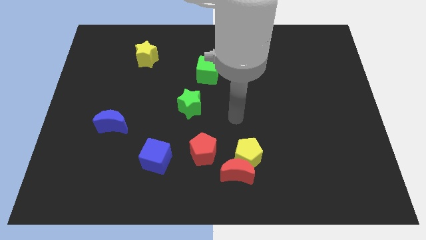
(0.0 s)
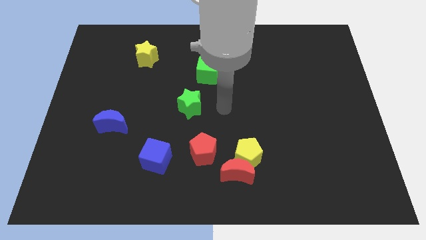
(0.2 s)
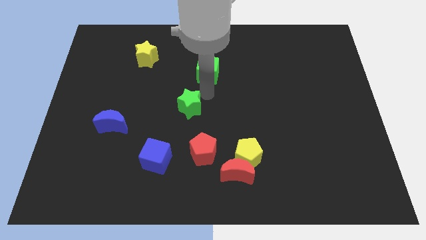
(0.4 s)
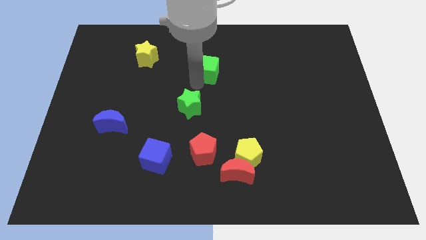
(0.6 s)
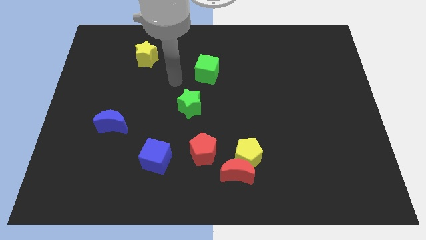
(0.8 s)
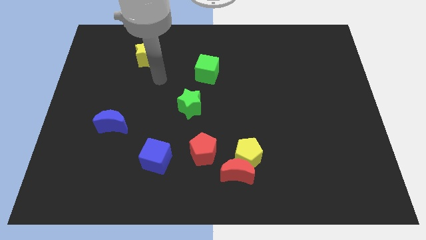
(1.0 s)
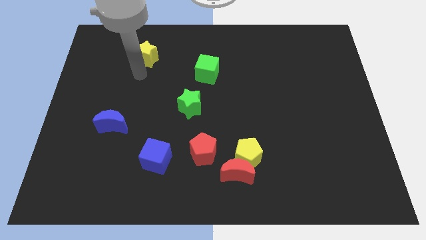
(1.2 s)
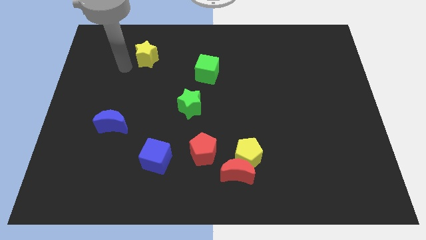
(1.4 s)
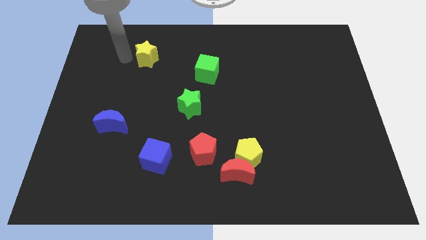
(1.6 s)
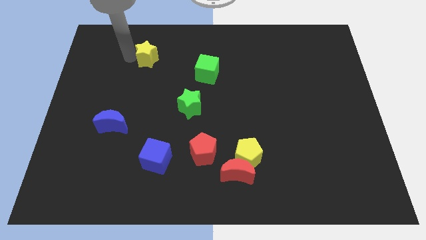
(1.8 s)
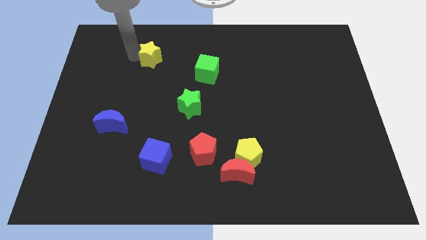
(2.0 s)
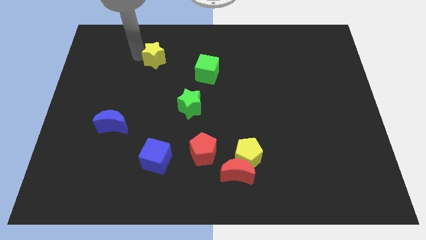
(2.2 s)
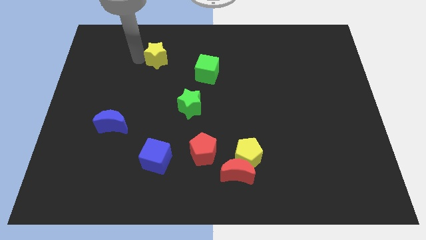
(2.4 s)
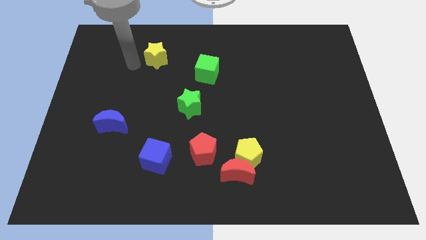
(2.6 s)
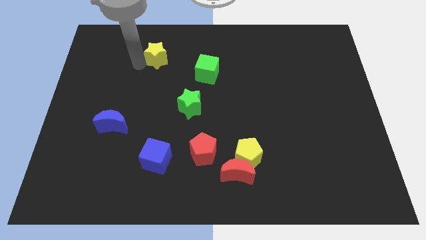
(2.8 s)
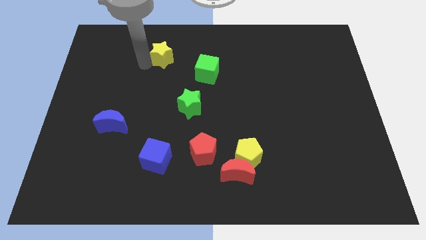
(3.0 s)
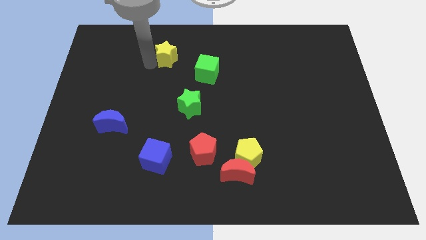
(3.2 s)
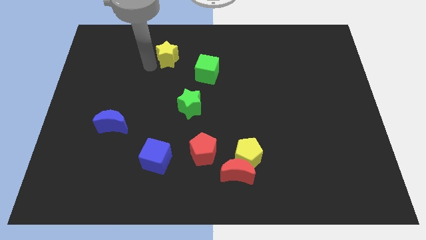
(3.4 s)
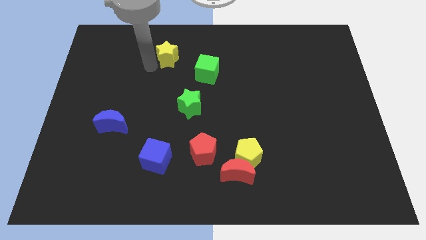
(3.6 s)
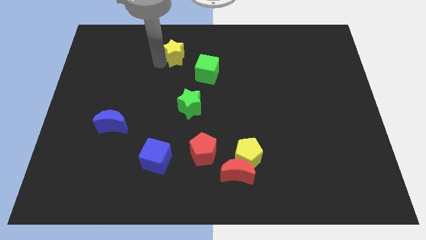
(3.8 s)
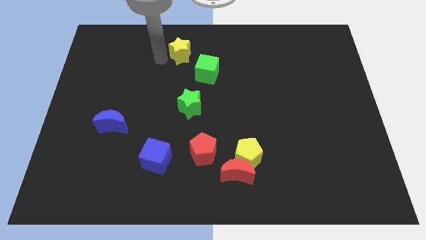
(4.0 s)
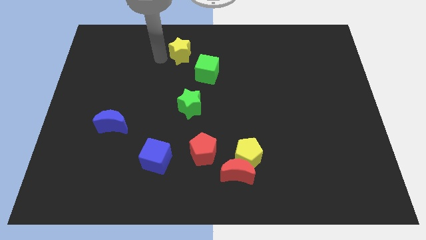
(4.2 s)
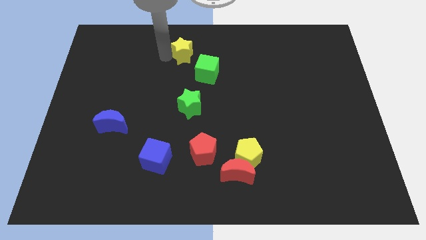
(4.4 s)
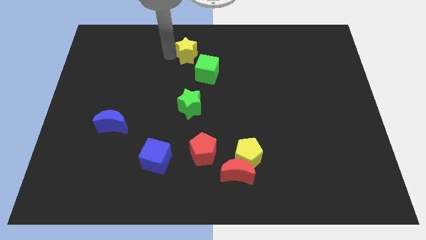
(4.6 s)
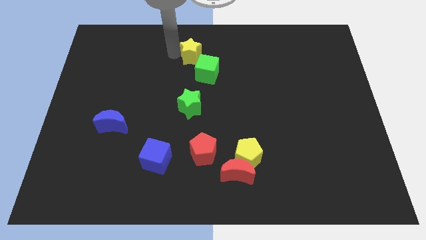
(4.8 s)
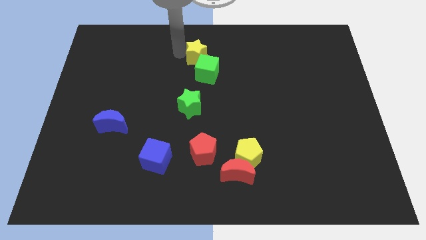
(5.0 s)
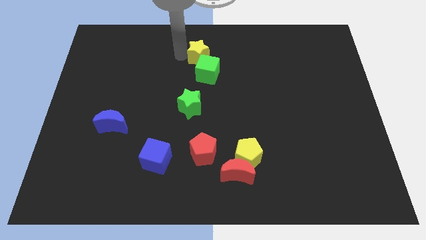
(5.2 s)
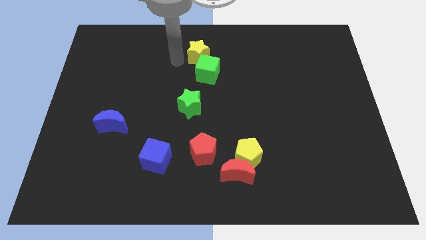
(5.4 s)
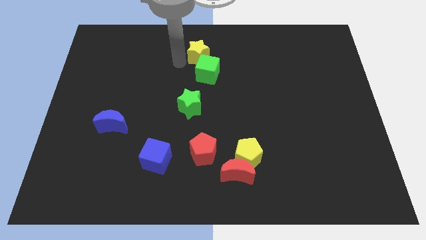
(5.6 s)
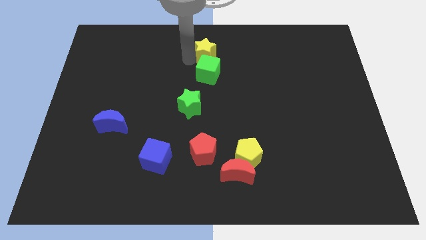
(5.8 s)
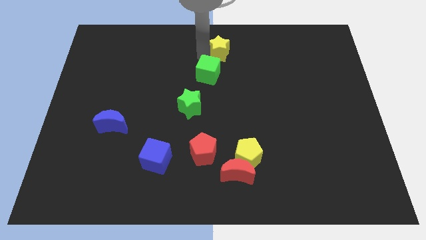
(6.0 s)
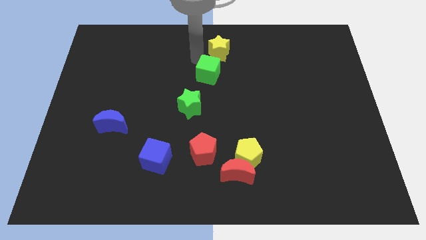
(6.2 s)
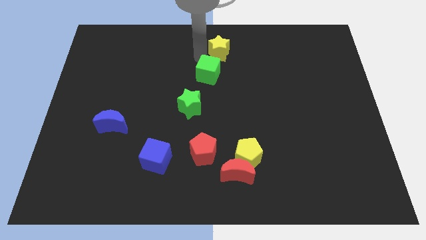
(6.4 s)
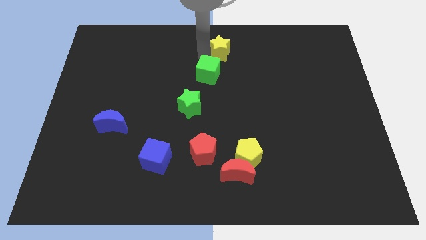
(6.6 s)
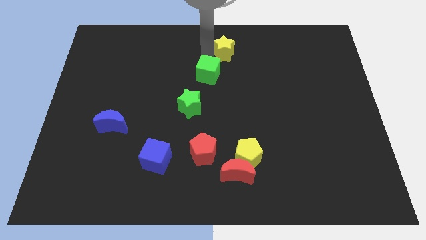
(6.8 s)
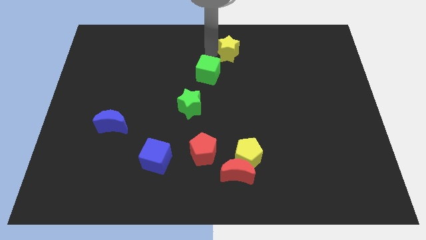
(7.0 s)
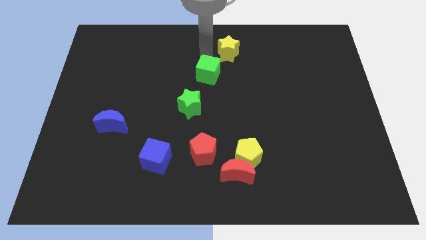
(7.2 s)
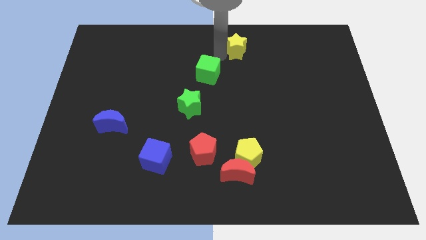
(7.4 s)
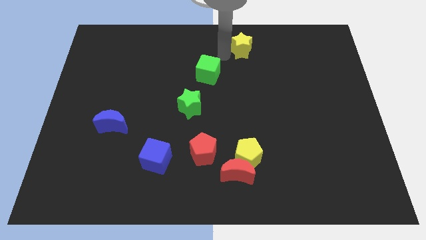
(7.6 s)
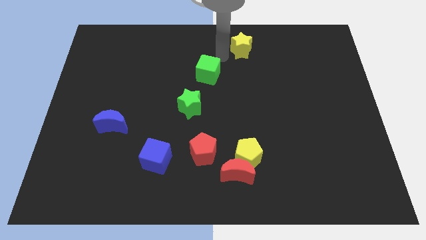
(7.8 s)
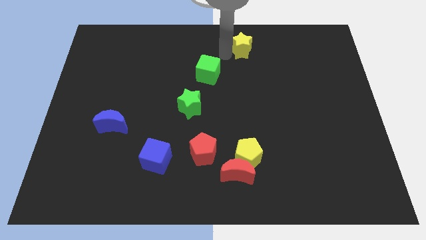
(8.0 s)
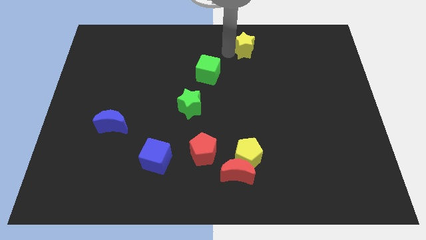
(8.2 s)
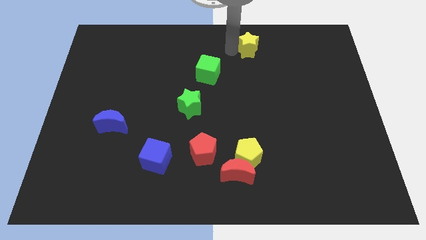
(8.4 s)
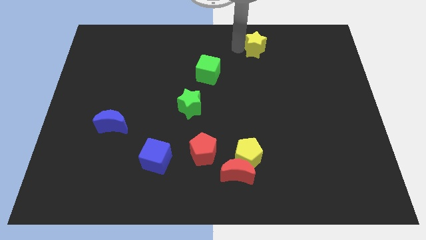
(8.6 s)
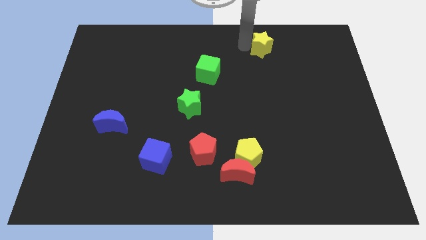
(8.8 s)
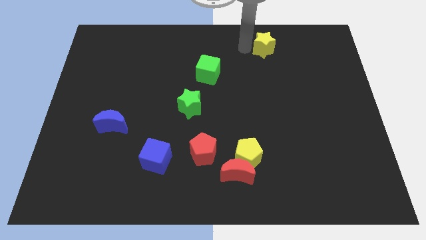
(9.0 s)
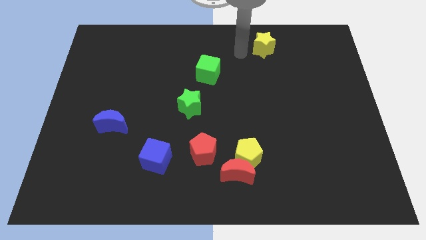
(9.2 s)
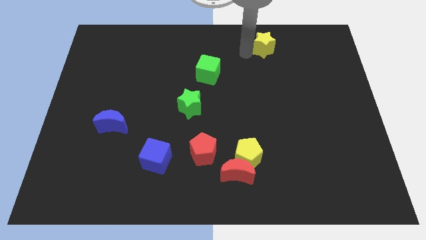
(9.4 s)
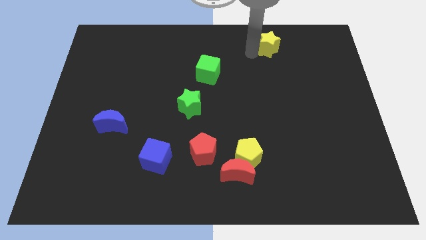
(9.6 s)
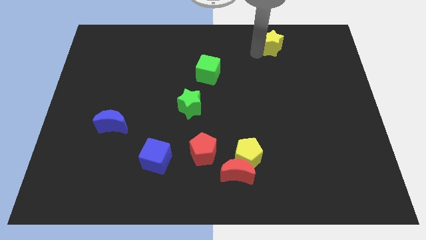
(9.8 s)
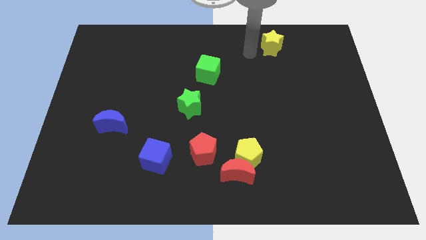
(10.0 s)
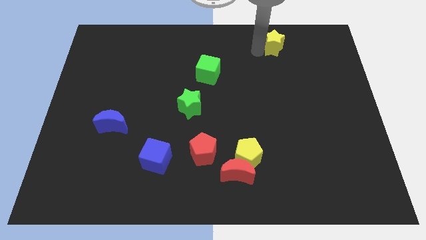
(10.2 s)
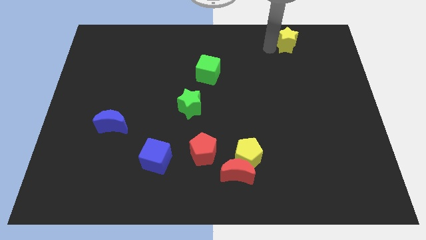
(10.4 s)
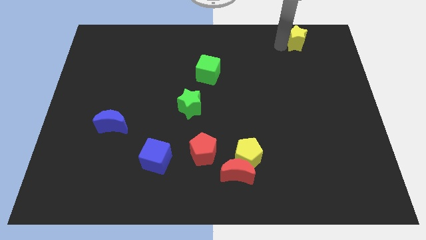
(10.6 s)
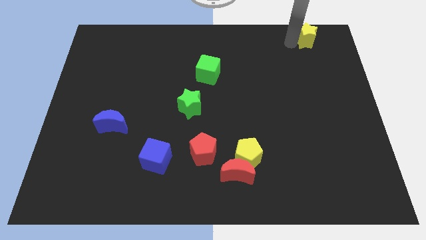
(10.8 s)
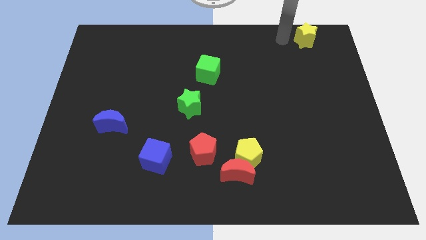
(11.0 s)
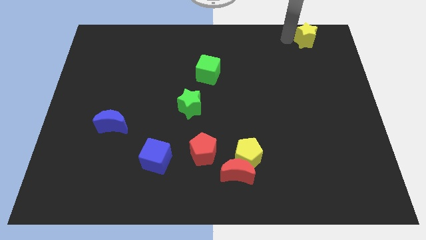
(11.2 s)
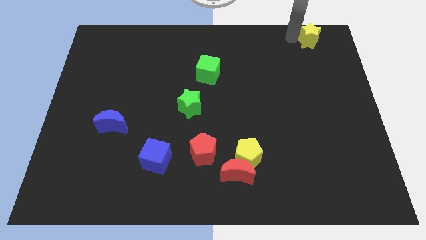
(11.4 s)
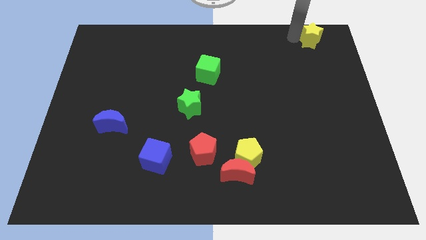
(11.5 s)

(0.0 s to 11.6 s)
move the yellow star to the upper right corner

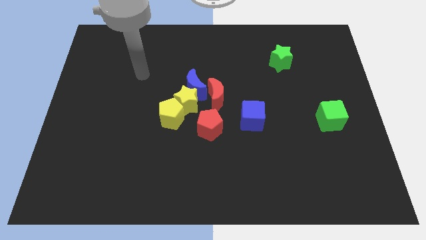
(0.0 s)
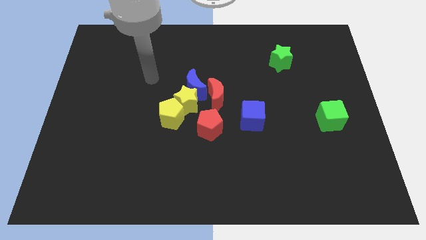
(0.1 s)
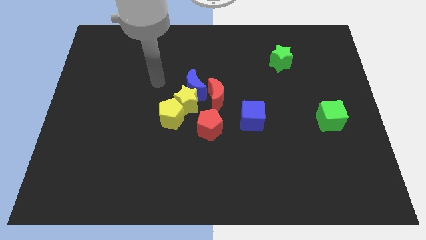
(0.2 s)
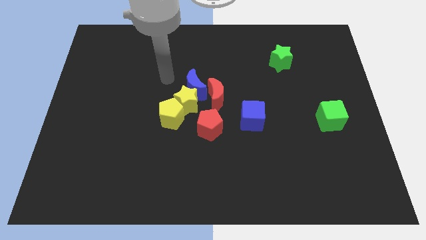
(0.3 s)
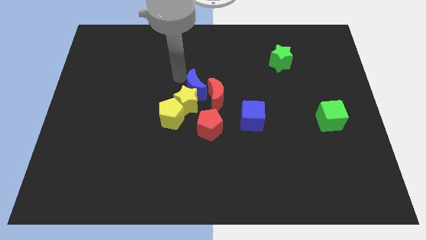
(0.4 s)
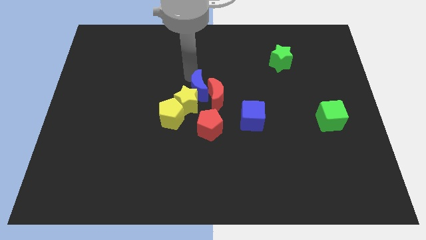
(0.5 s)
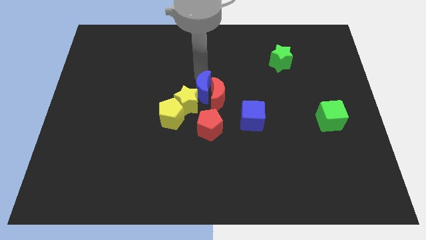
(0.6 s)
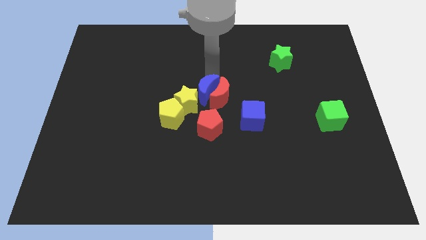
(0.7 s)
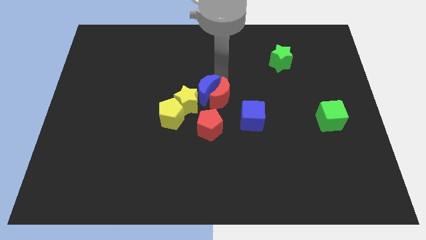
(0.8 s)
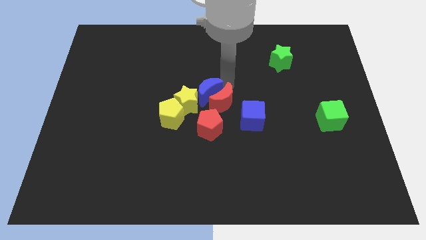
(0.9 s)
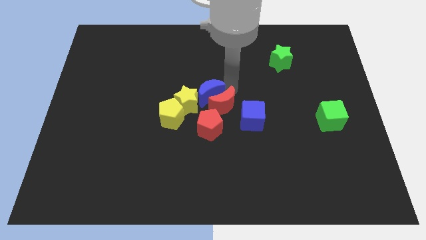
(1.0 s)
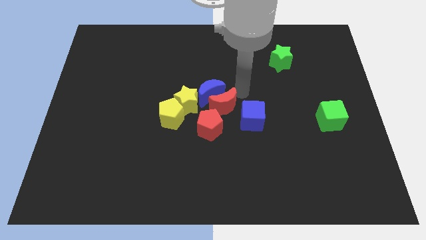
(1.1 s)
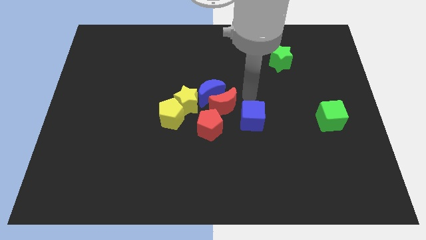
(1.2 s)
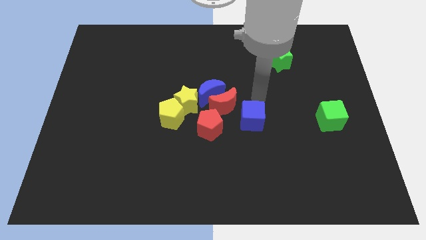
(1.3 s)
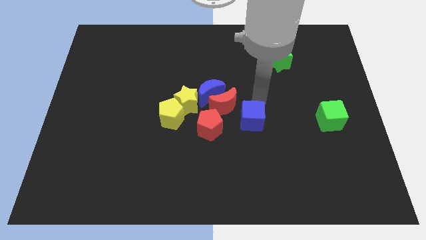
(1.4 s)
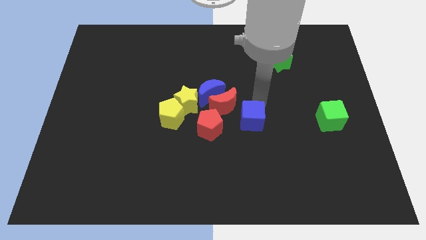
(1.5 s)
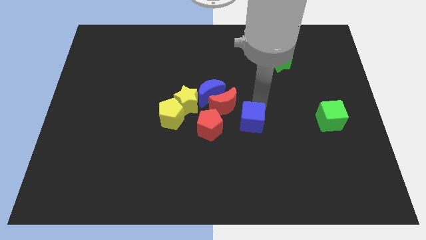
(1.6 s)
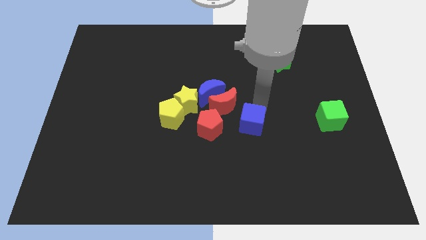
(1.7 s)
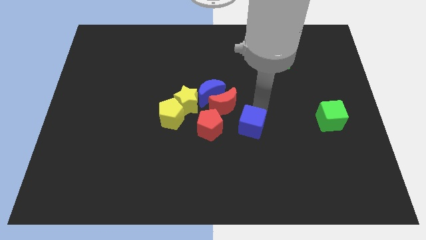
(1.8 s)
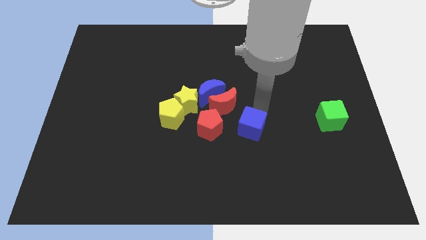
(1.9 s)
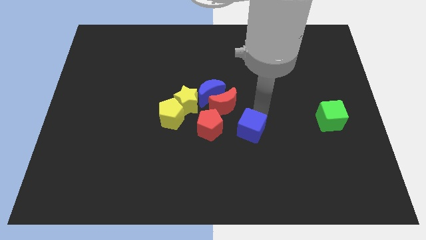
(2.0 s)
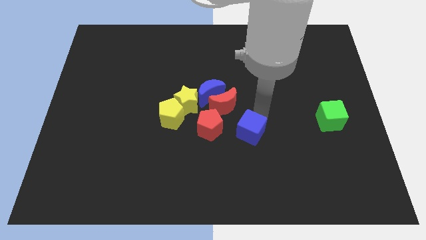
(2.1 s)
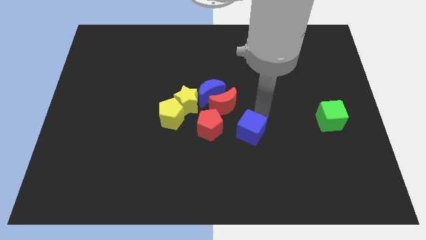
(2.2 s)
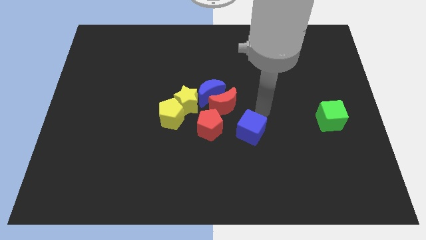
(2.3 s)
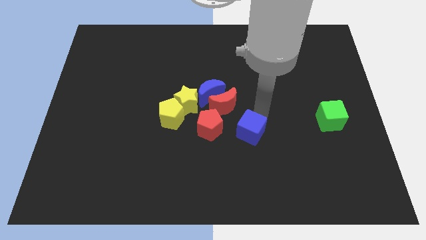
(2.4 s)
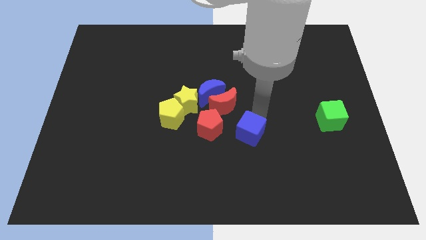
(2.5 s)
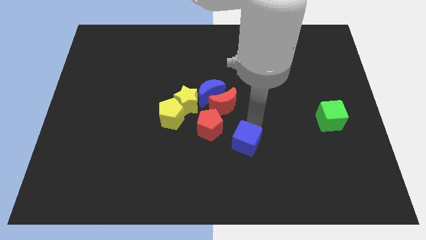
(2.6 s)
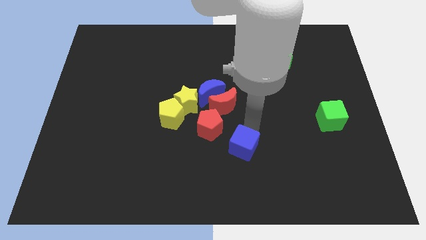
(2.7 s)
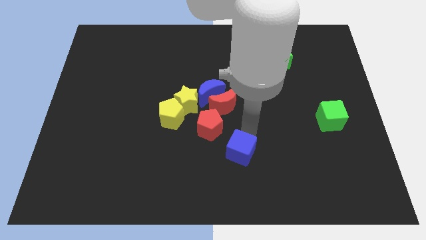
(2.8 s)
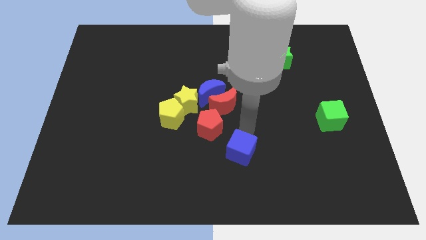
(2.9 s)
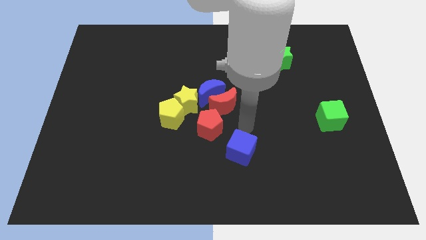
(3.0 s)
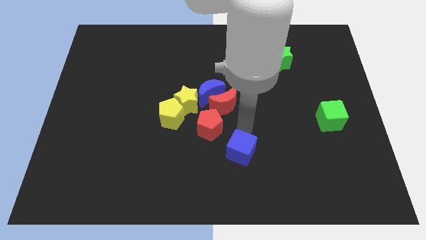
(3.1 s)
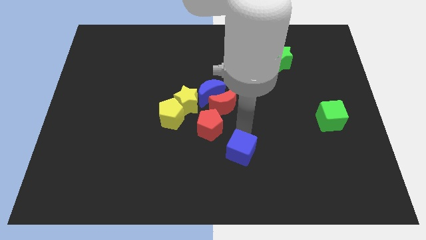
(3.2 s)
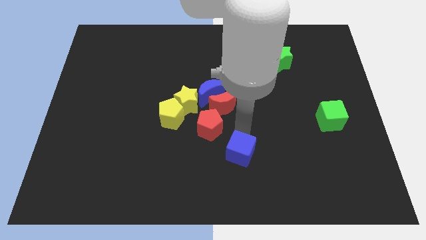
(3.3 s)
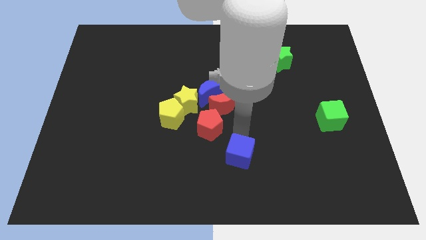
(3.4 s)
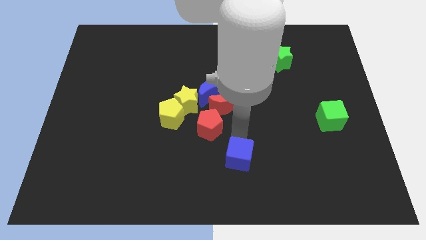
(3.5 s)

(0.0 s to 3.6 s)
push the blue cube to the bottom side
